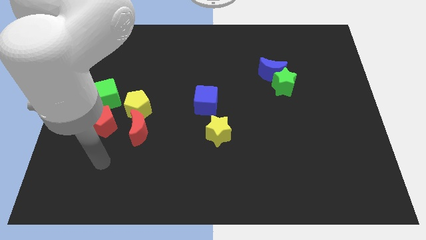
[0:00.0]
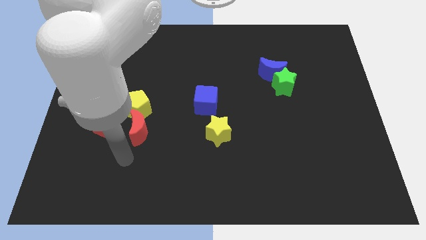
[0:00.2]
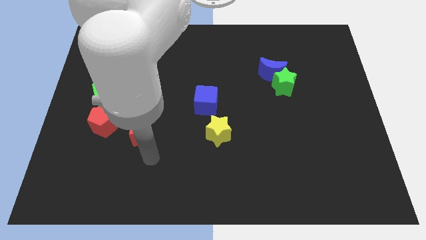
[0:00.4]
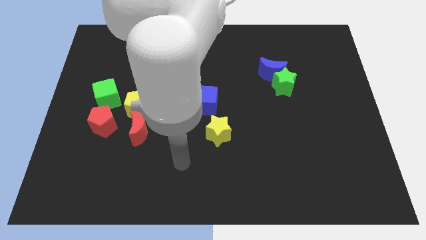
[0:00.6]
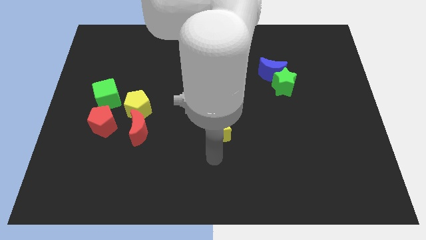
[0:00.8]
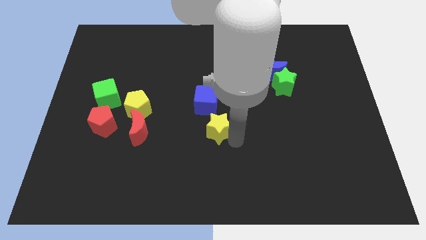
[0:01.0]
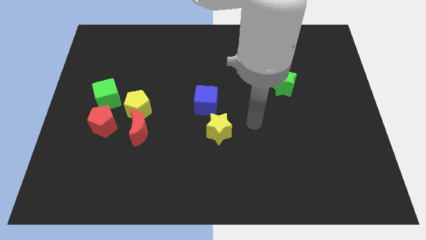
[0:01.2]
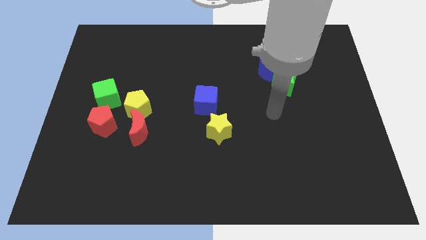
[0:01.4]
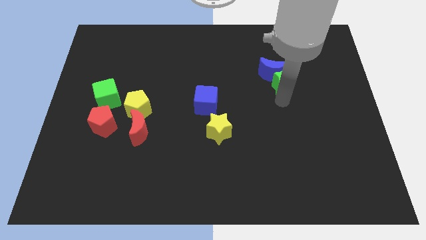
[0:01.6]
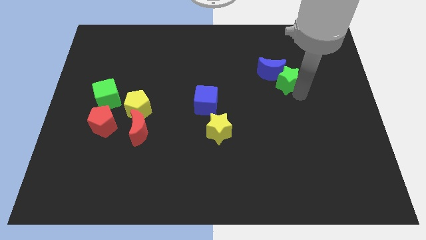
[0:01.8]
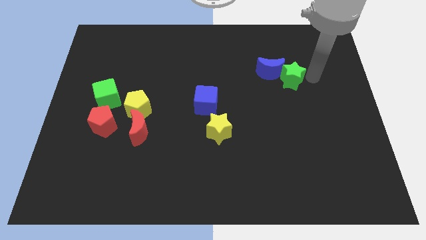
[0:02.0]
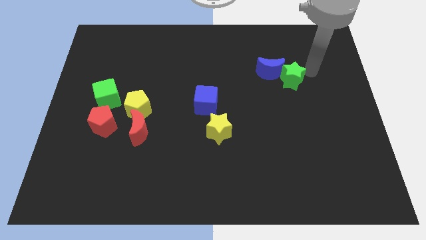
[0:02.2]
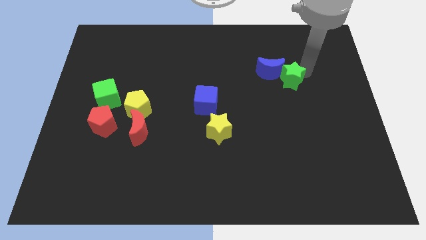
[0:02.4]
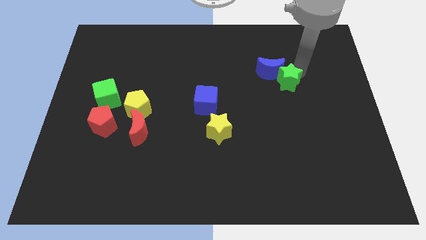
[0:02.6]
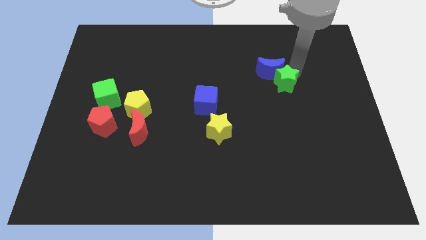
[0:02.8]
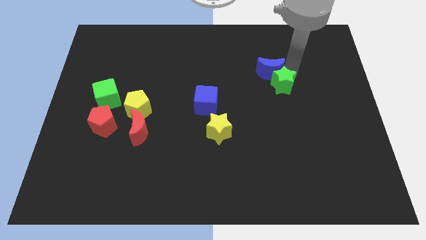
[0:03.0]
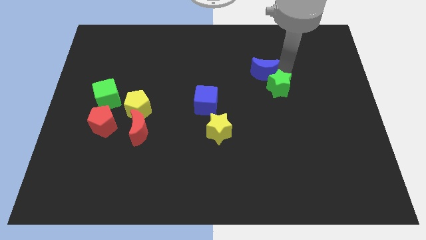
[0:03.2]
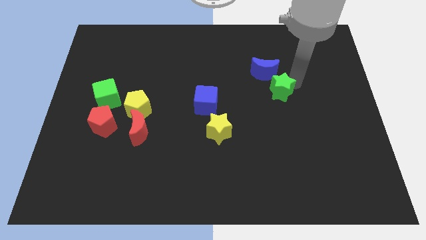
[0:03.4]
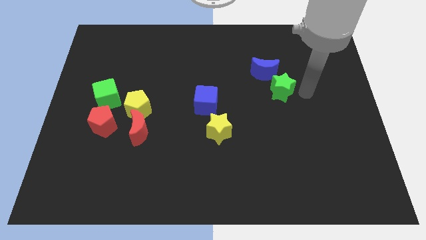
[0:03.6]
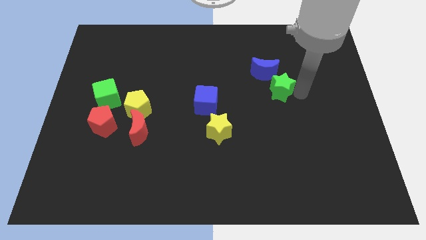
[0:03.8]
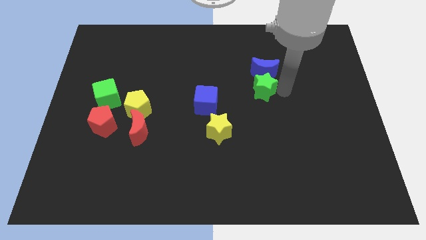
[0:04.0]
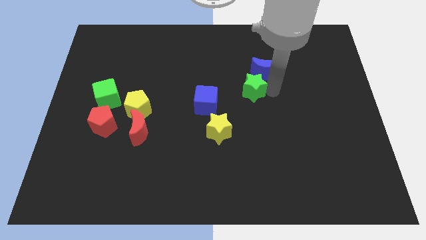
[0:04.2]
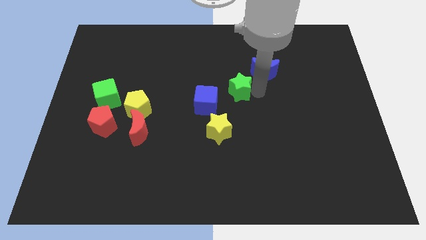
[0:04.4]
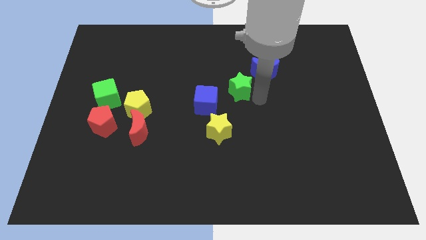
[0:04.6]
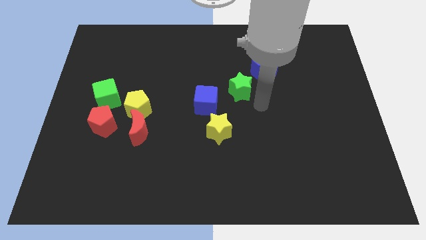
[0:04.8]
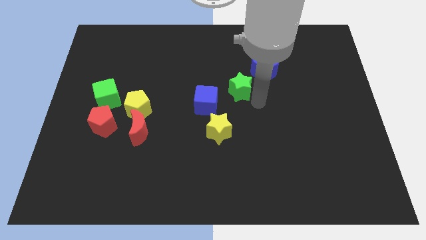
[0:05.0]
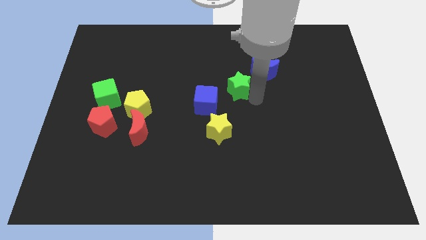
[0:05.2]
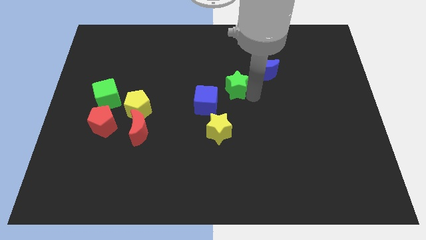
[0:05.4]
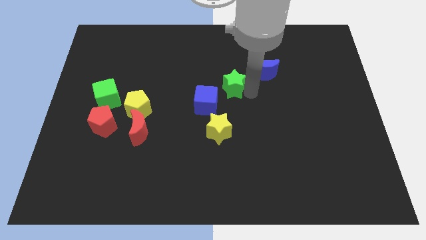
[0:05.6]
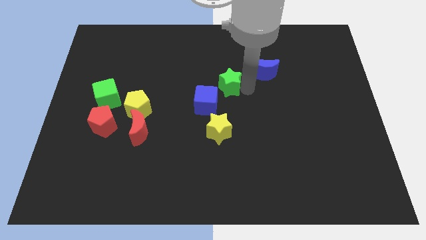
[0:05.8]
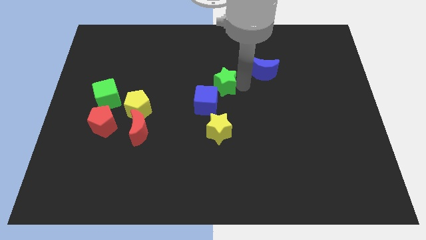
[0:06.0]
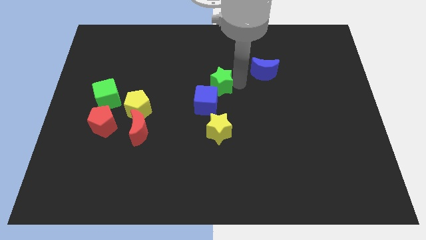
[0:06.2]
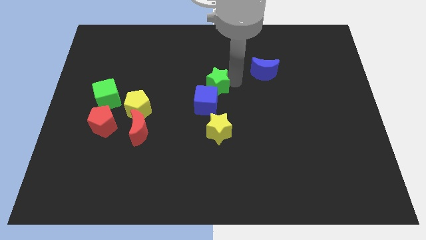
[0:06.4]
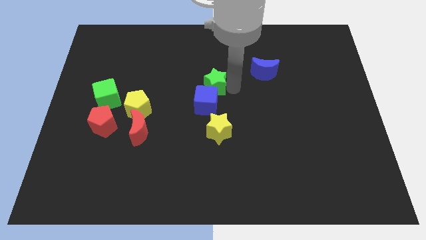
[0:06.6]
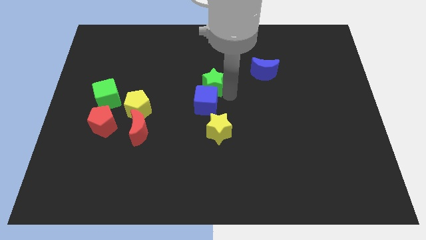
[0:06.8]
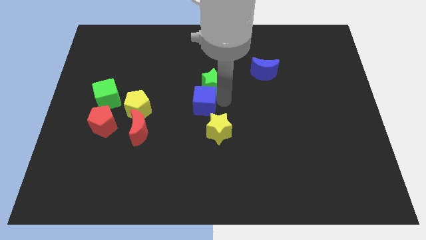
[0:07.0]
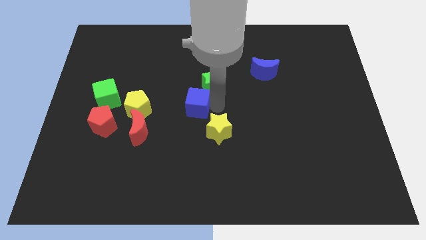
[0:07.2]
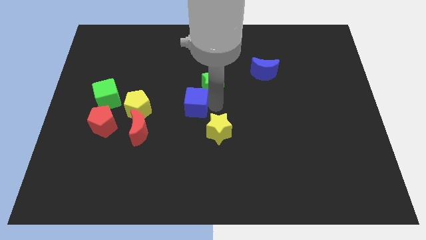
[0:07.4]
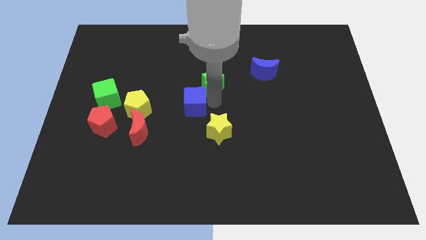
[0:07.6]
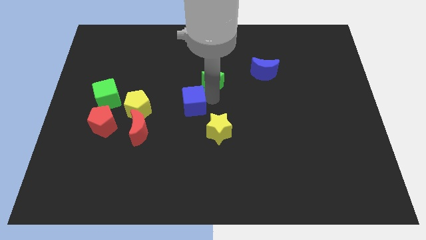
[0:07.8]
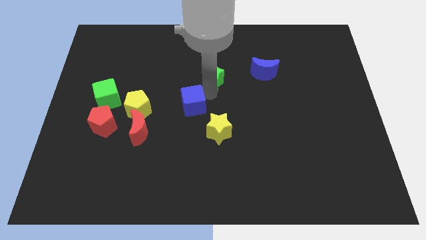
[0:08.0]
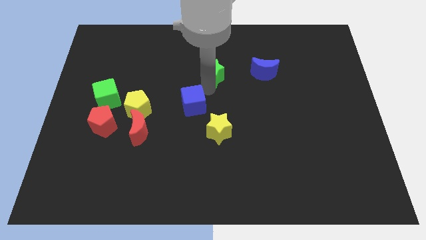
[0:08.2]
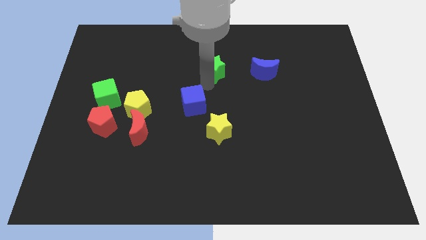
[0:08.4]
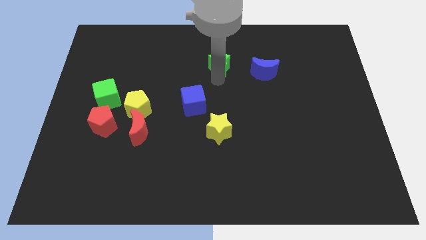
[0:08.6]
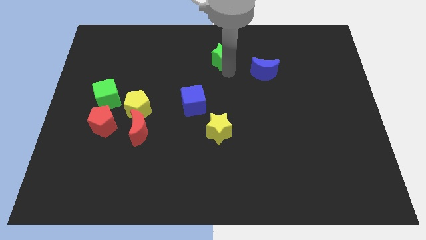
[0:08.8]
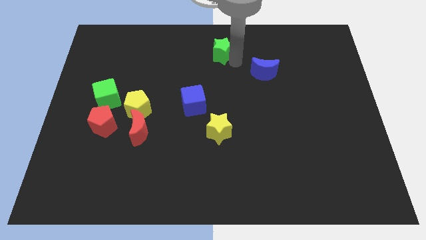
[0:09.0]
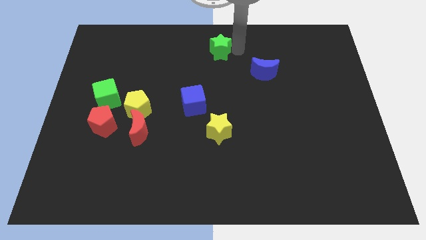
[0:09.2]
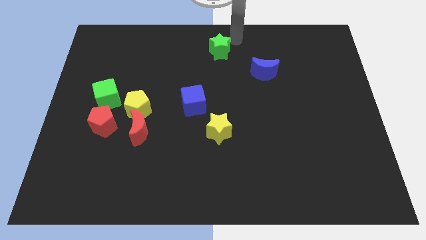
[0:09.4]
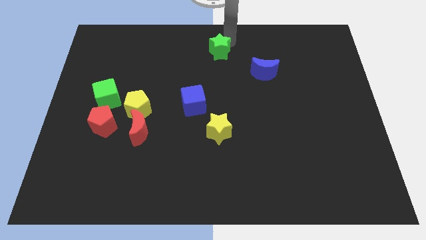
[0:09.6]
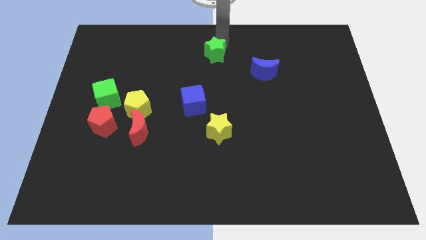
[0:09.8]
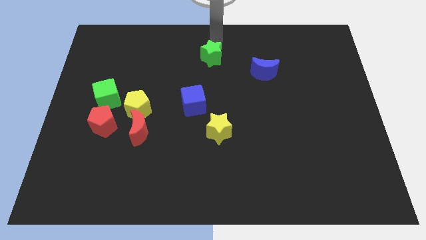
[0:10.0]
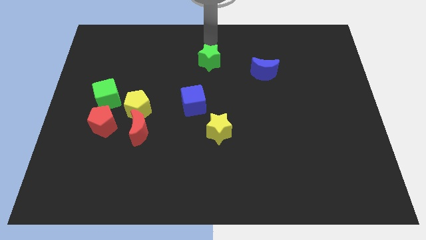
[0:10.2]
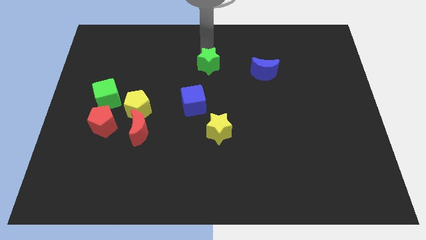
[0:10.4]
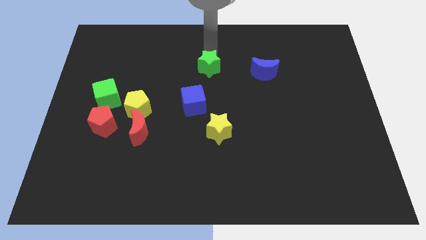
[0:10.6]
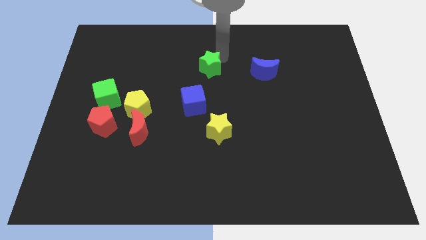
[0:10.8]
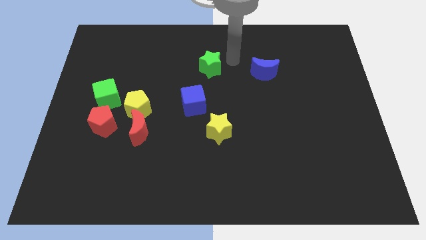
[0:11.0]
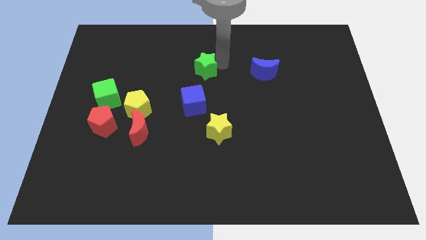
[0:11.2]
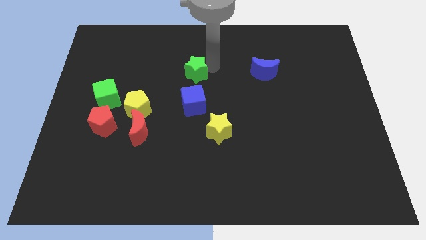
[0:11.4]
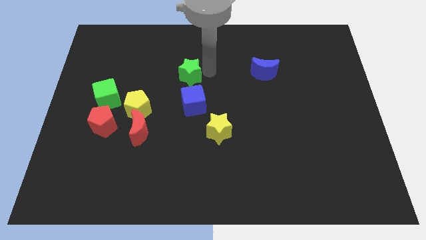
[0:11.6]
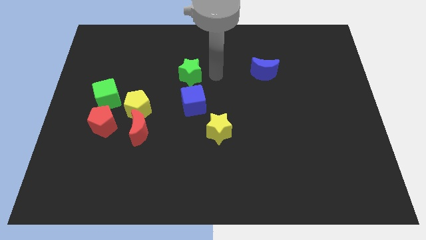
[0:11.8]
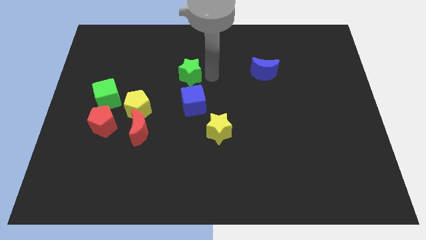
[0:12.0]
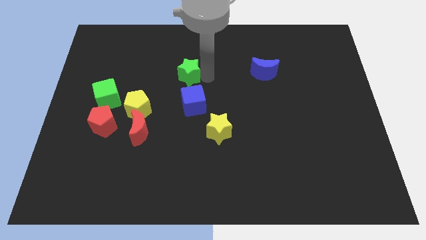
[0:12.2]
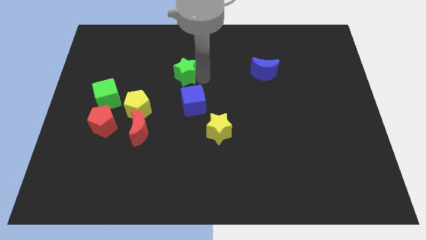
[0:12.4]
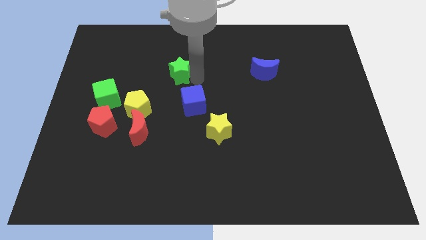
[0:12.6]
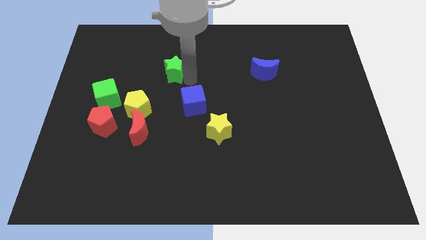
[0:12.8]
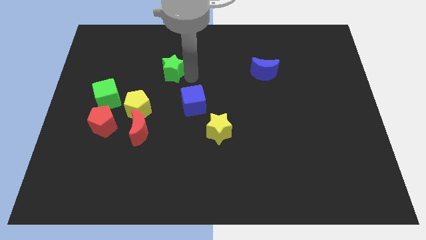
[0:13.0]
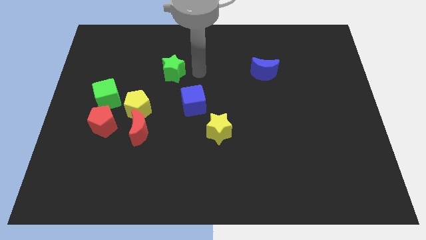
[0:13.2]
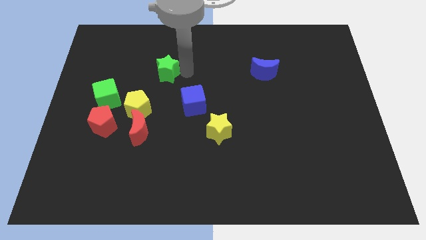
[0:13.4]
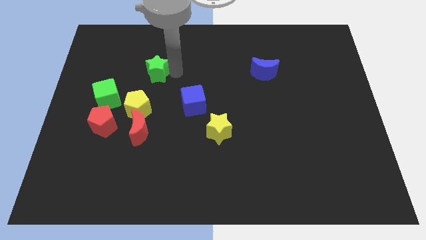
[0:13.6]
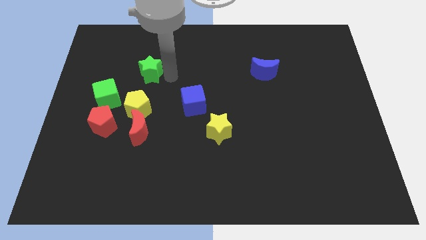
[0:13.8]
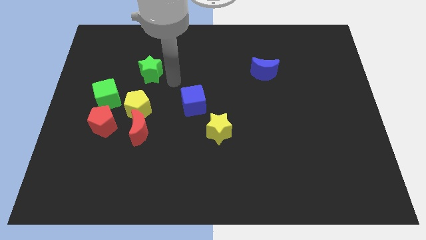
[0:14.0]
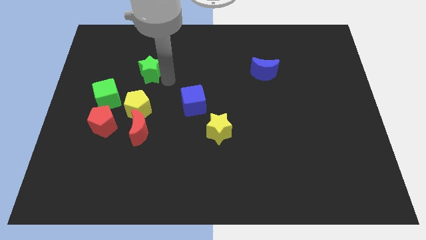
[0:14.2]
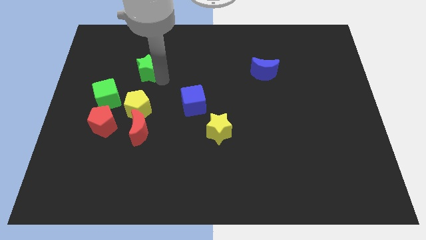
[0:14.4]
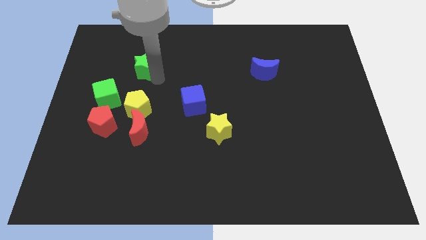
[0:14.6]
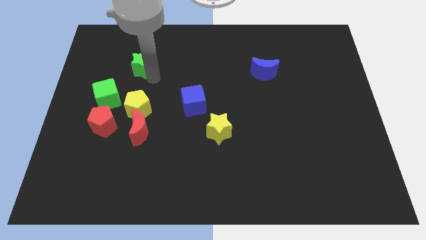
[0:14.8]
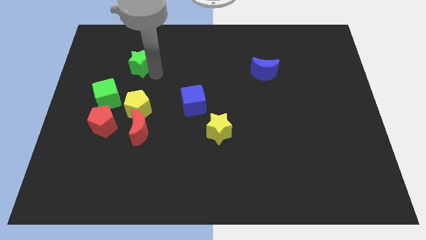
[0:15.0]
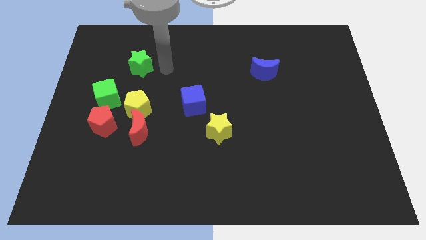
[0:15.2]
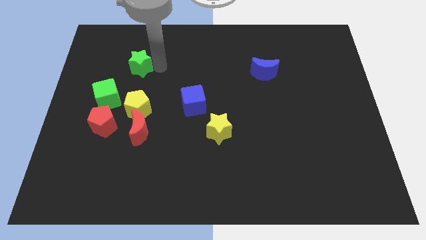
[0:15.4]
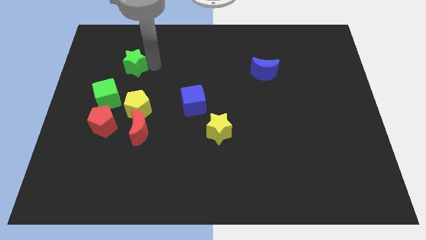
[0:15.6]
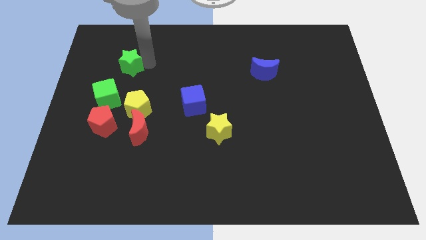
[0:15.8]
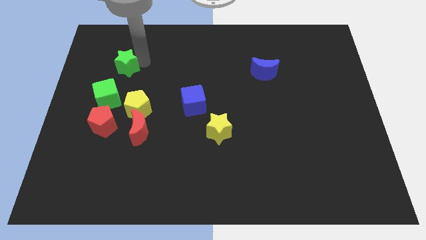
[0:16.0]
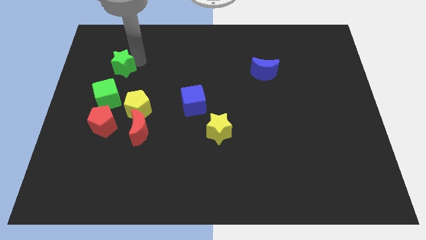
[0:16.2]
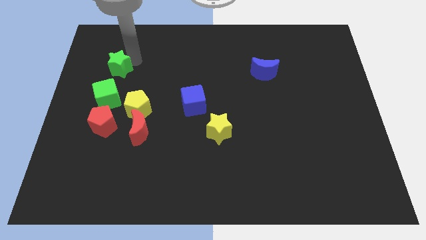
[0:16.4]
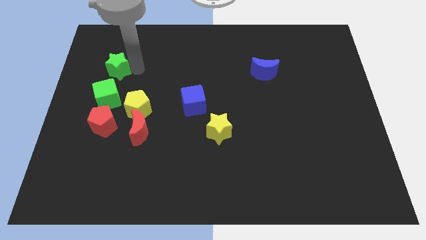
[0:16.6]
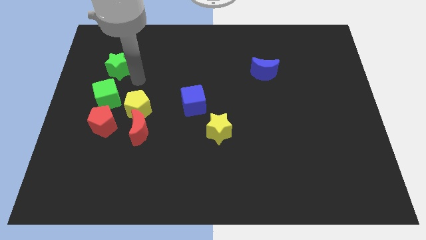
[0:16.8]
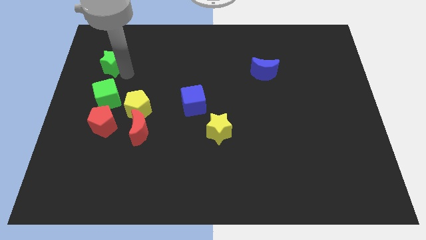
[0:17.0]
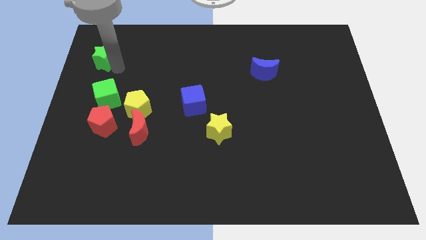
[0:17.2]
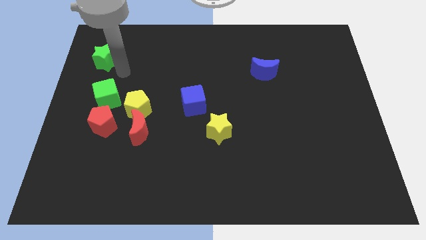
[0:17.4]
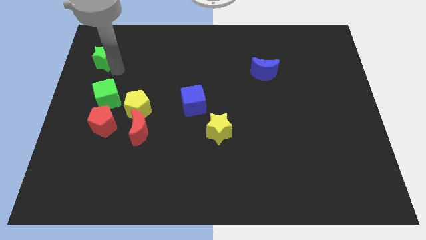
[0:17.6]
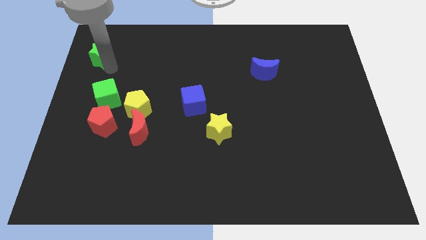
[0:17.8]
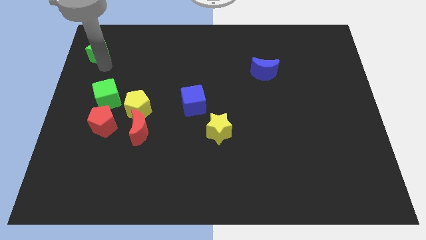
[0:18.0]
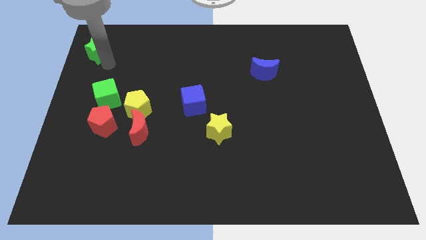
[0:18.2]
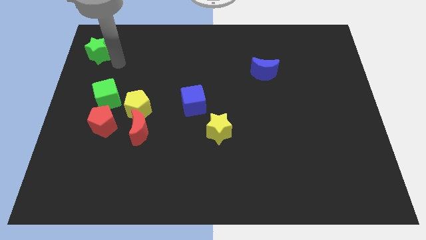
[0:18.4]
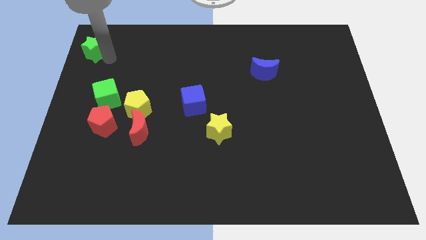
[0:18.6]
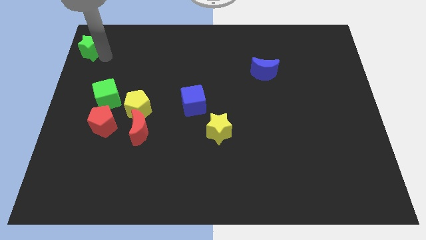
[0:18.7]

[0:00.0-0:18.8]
move the green star to the top left of the board
